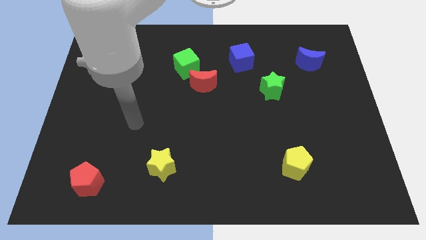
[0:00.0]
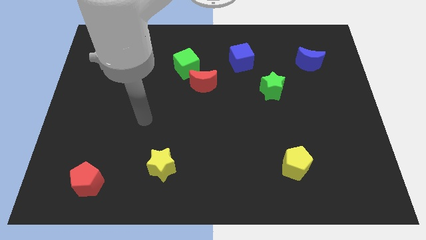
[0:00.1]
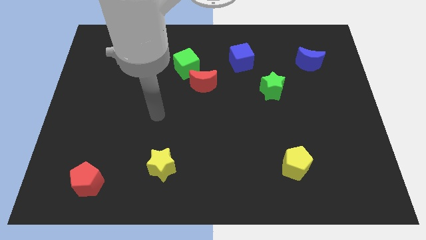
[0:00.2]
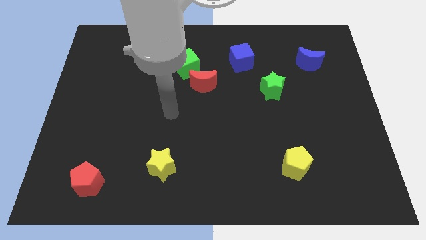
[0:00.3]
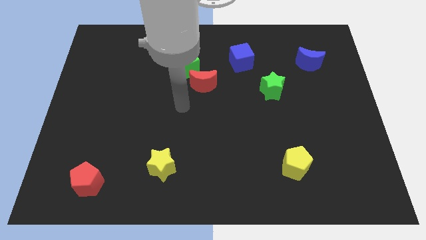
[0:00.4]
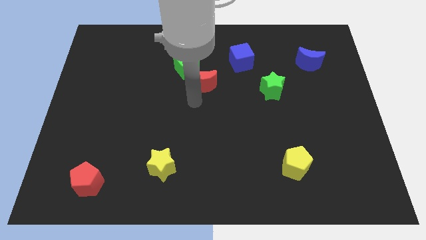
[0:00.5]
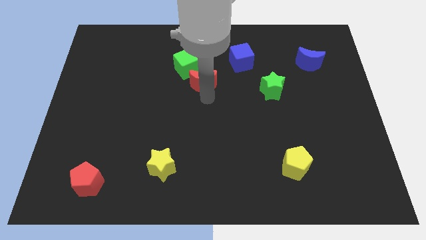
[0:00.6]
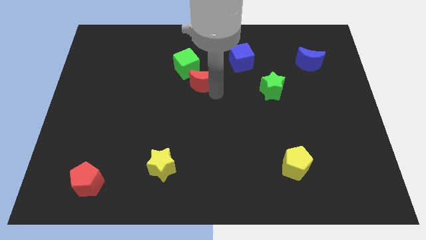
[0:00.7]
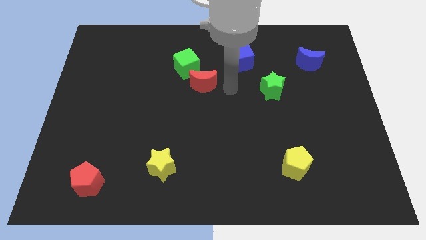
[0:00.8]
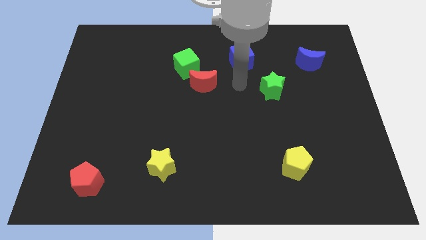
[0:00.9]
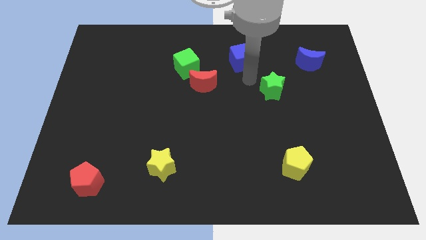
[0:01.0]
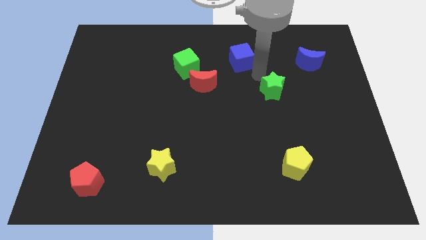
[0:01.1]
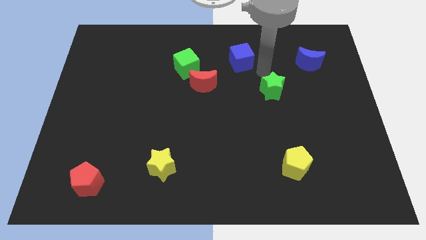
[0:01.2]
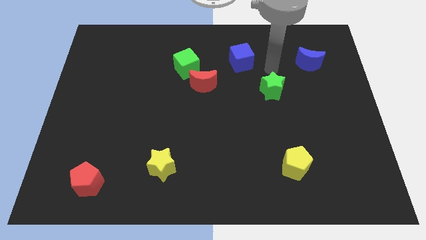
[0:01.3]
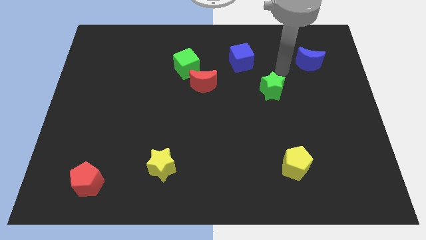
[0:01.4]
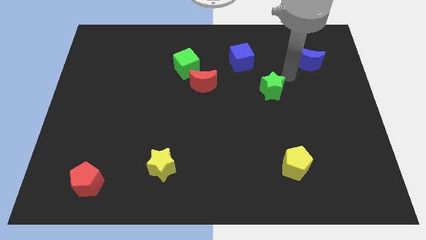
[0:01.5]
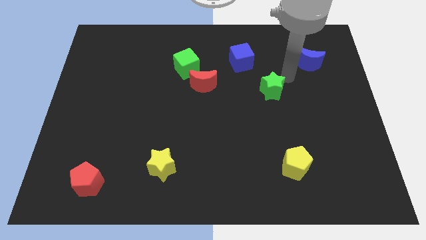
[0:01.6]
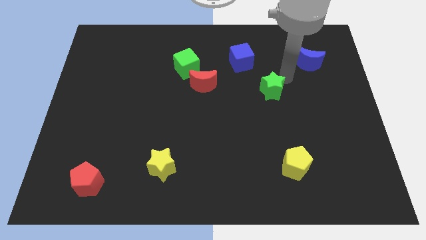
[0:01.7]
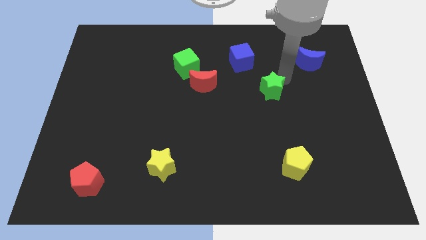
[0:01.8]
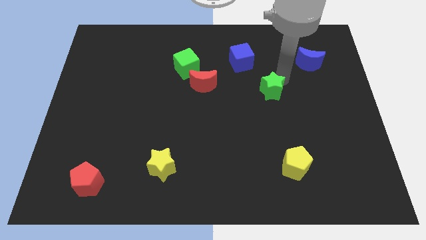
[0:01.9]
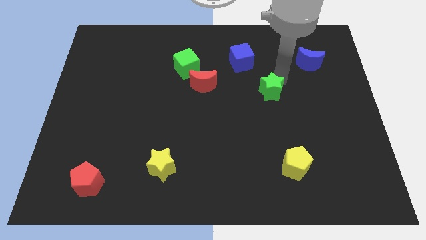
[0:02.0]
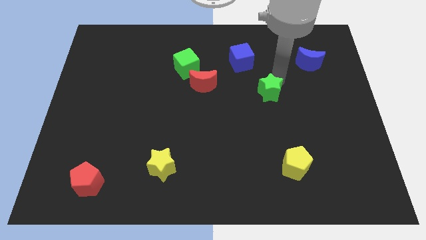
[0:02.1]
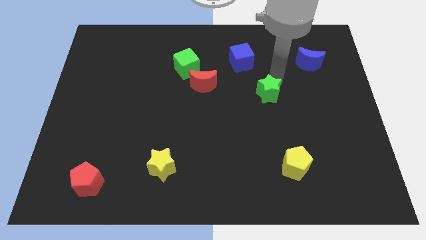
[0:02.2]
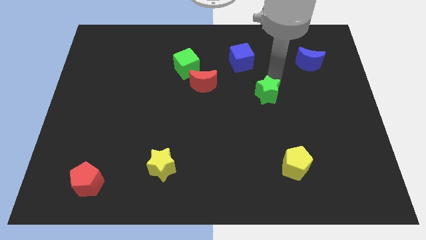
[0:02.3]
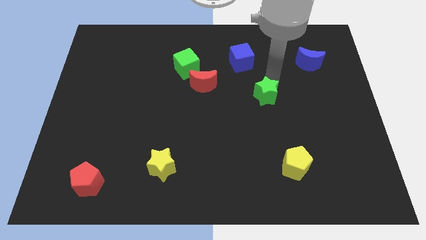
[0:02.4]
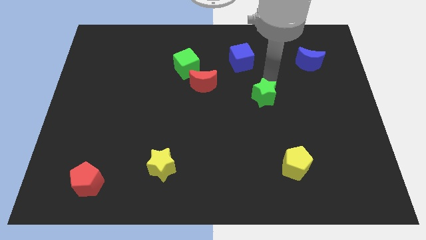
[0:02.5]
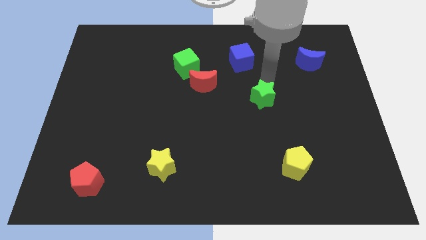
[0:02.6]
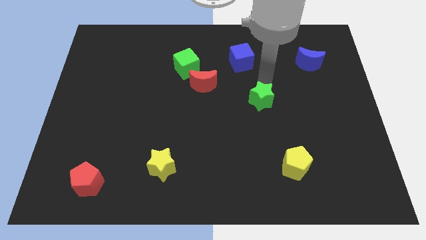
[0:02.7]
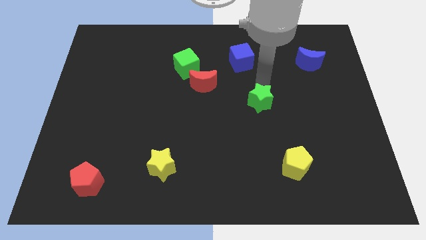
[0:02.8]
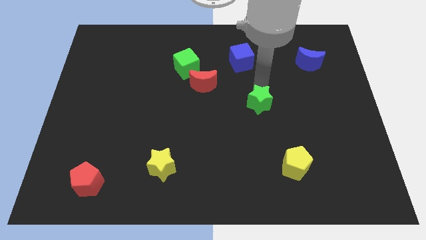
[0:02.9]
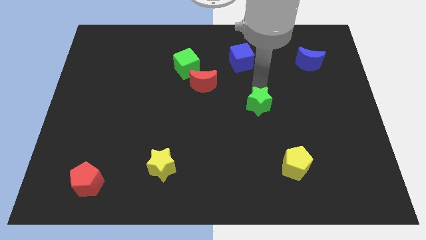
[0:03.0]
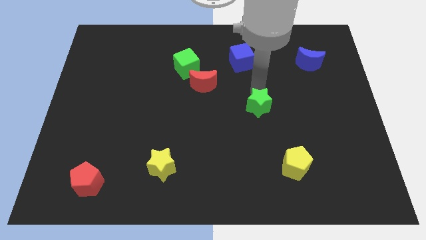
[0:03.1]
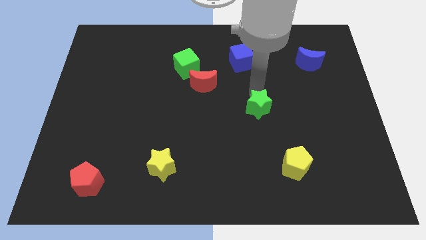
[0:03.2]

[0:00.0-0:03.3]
slightly slide the green star down and to the left diagonally

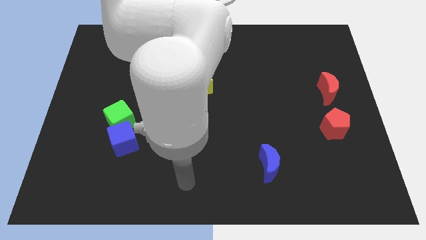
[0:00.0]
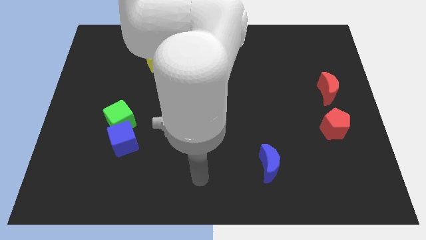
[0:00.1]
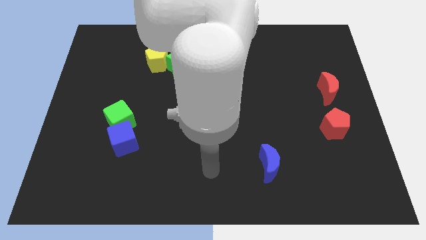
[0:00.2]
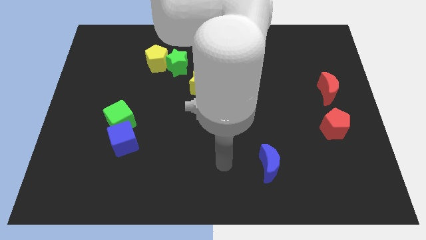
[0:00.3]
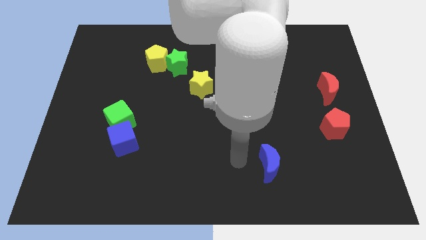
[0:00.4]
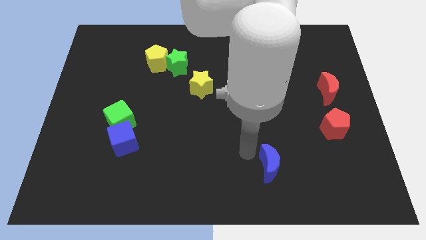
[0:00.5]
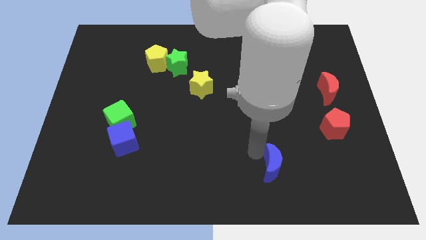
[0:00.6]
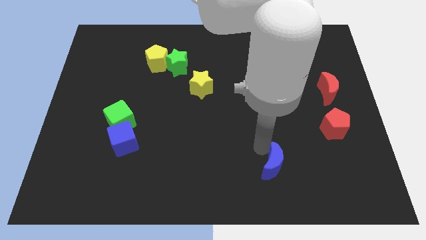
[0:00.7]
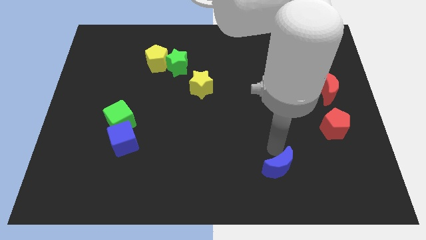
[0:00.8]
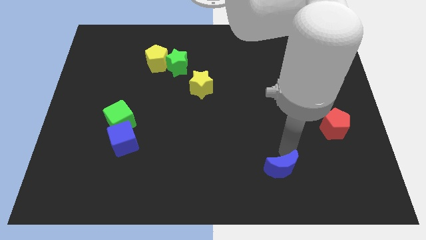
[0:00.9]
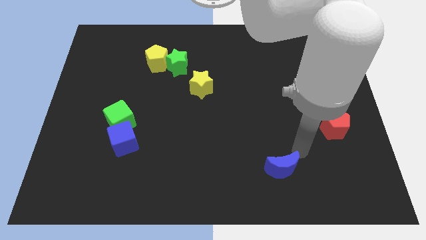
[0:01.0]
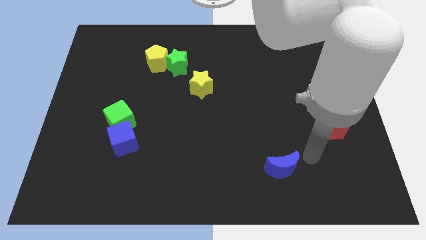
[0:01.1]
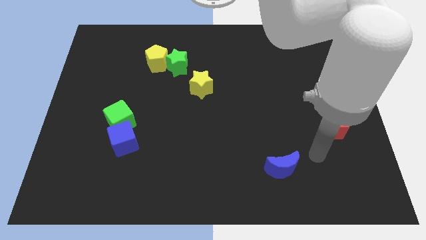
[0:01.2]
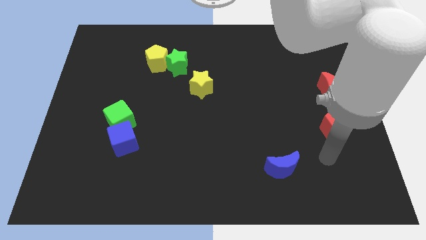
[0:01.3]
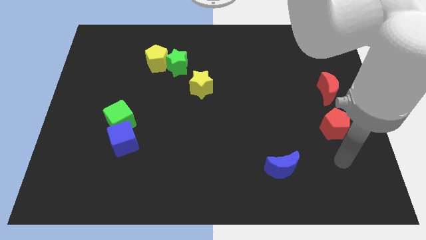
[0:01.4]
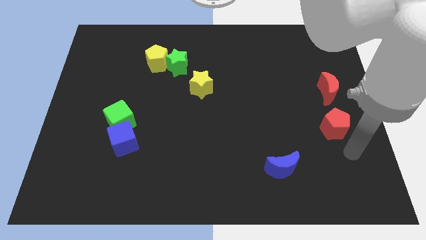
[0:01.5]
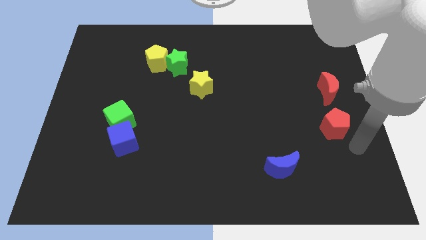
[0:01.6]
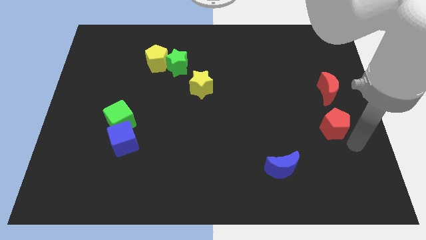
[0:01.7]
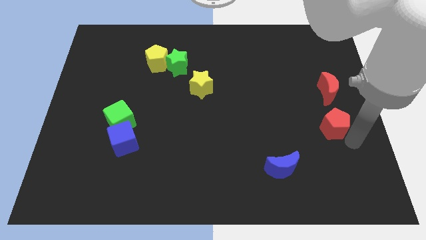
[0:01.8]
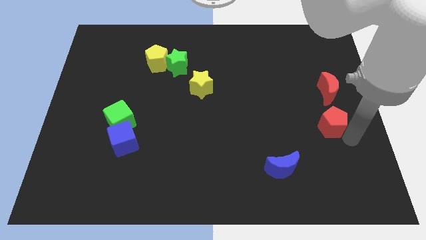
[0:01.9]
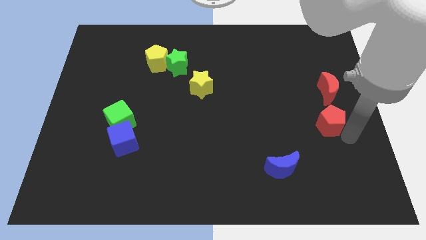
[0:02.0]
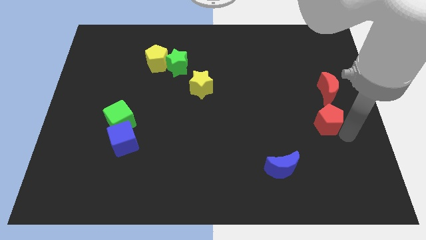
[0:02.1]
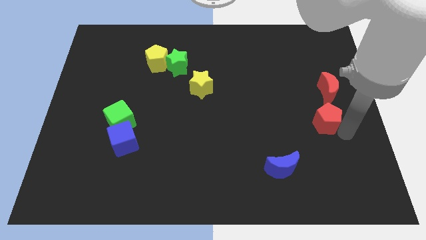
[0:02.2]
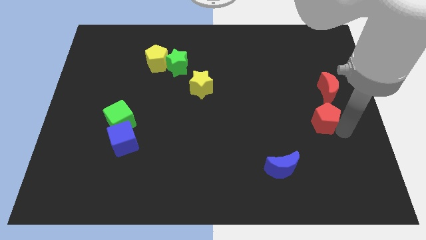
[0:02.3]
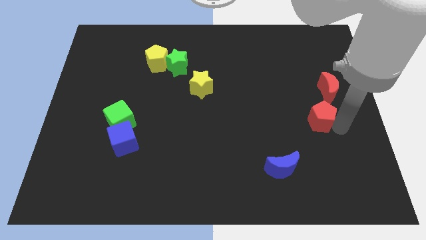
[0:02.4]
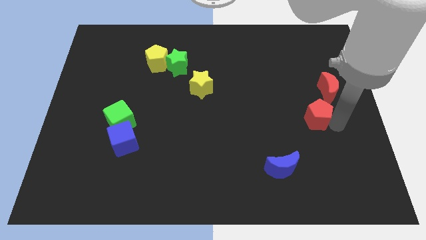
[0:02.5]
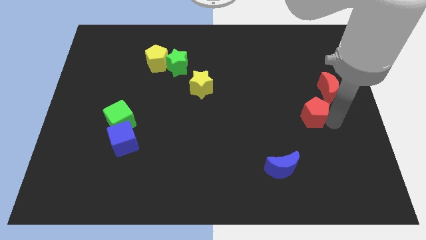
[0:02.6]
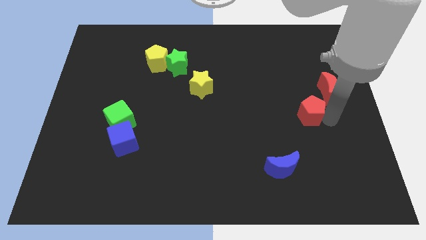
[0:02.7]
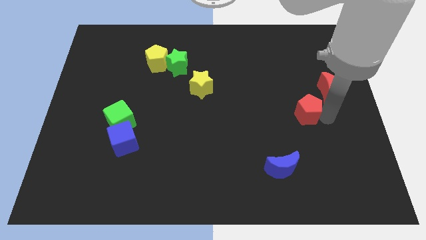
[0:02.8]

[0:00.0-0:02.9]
push the red pentagon slightly up and to the left

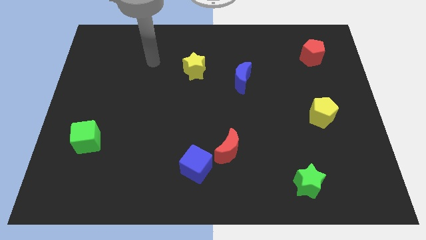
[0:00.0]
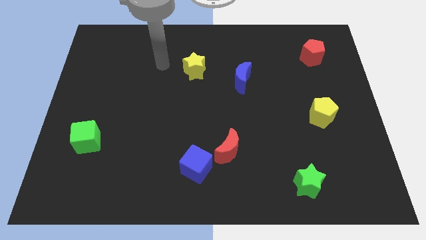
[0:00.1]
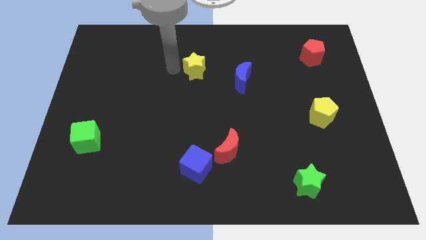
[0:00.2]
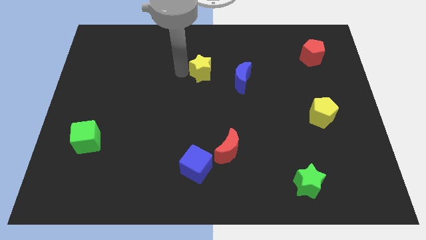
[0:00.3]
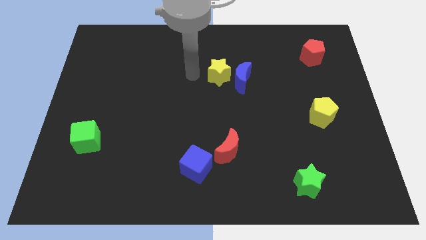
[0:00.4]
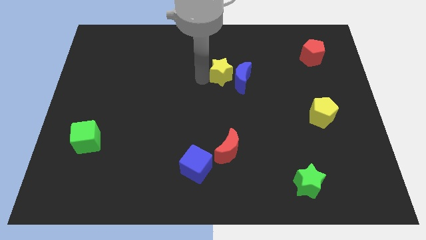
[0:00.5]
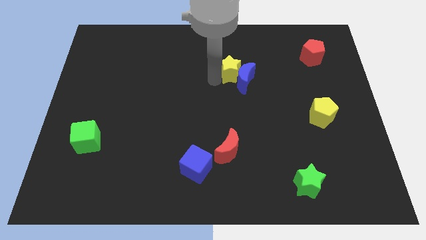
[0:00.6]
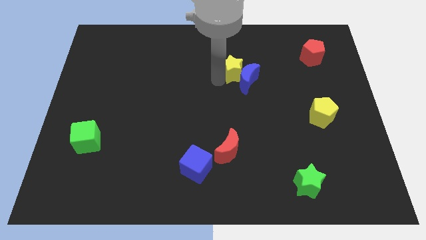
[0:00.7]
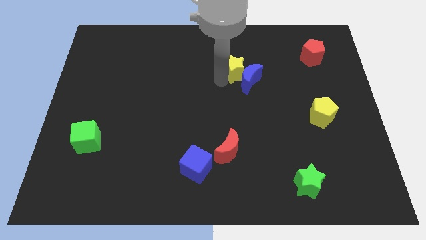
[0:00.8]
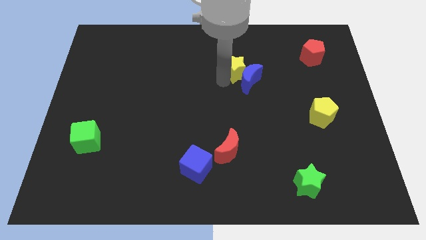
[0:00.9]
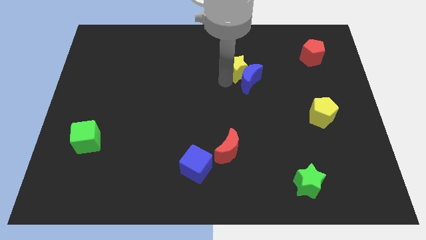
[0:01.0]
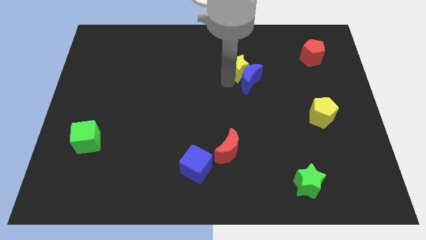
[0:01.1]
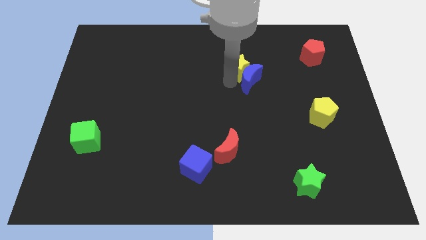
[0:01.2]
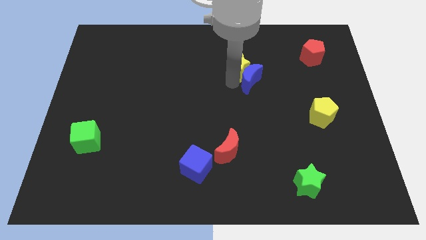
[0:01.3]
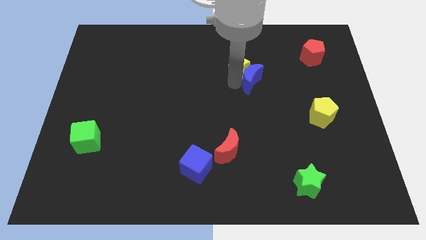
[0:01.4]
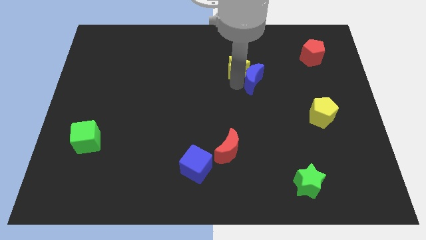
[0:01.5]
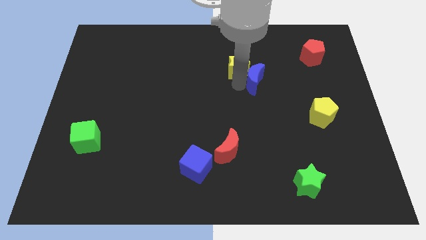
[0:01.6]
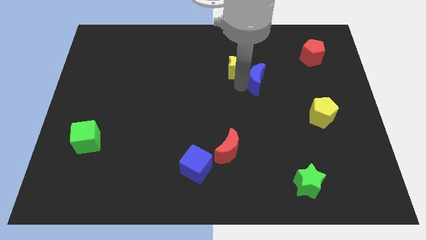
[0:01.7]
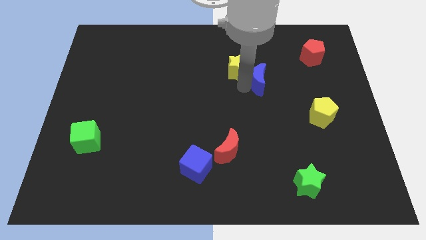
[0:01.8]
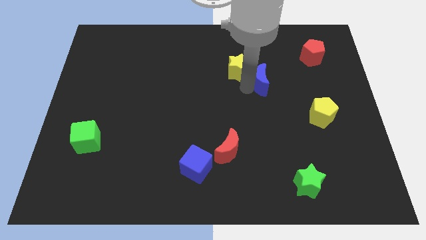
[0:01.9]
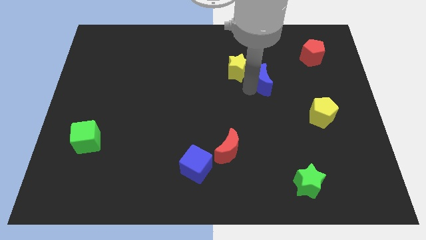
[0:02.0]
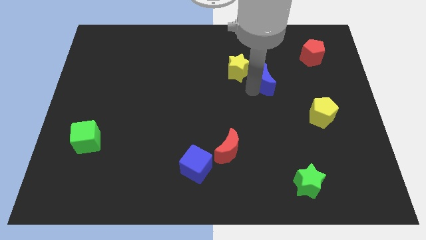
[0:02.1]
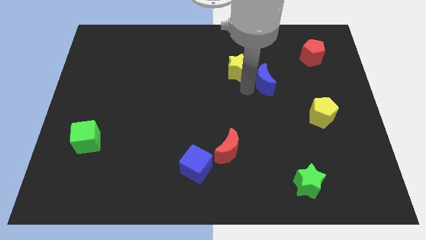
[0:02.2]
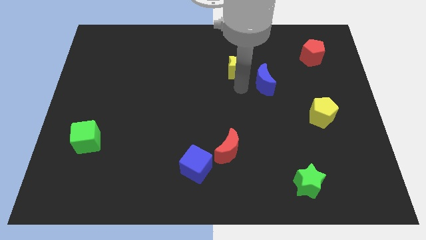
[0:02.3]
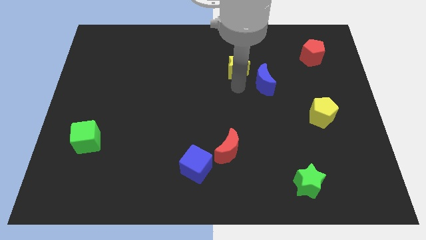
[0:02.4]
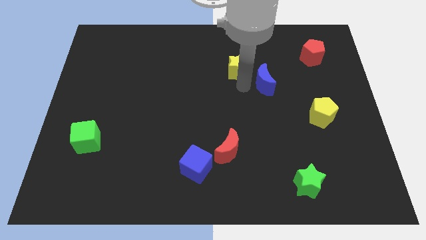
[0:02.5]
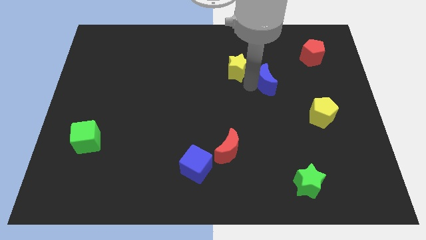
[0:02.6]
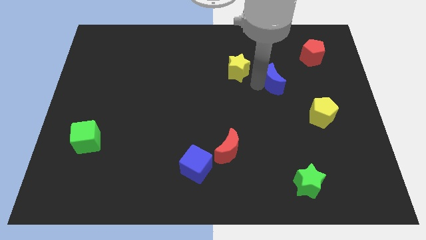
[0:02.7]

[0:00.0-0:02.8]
slide the blue moon slightly right
